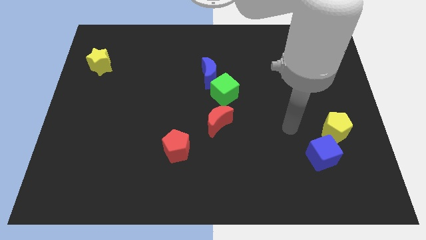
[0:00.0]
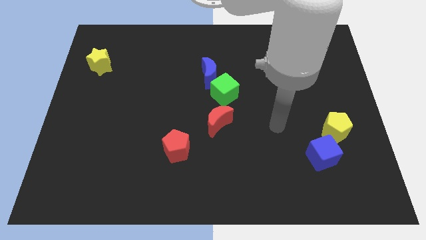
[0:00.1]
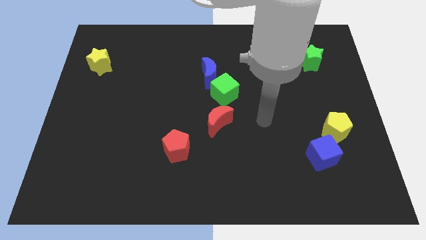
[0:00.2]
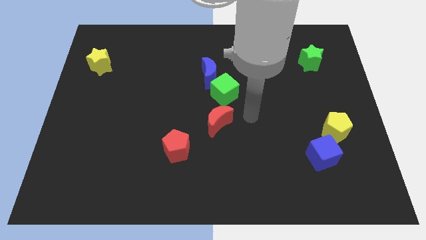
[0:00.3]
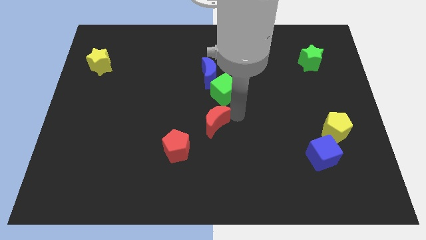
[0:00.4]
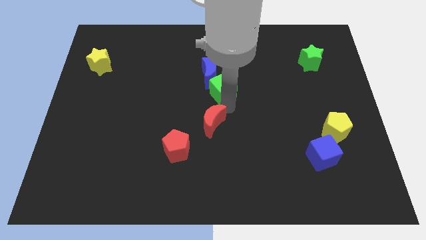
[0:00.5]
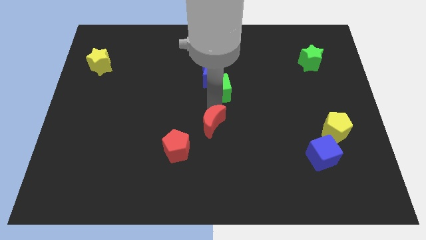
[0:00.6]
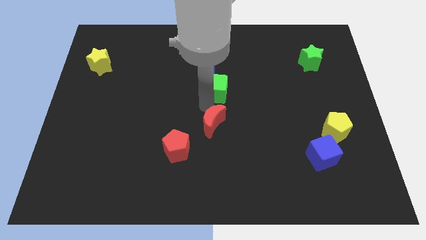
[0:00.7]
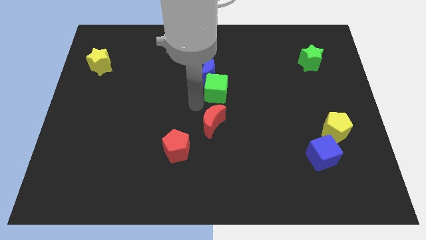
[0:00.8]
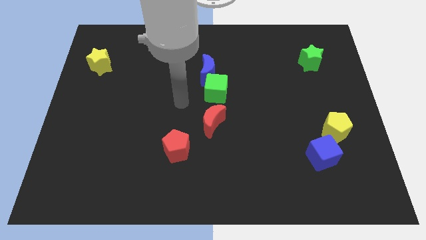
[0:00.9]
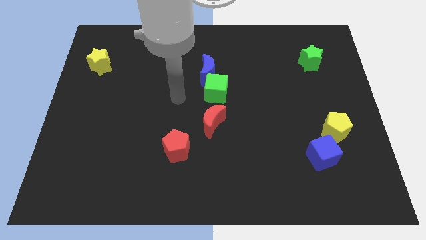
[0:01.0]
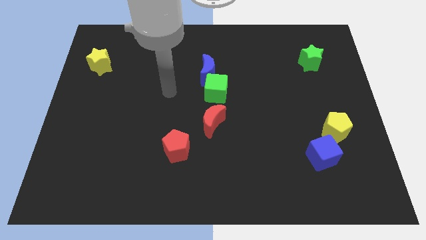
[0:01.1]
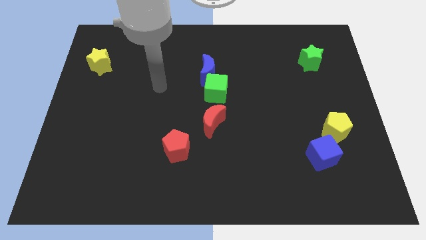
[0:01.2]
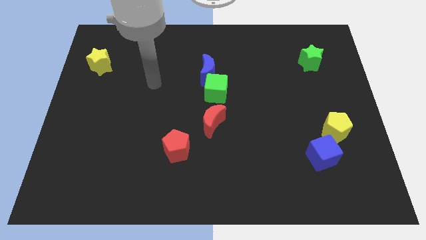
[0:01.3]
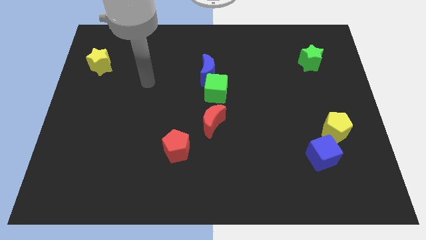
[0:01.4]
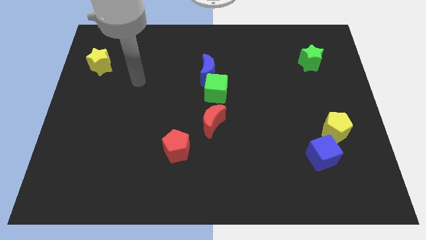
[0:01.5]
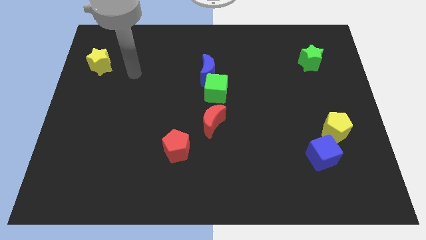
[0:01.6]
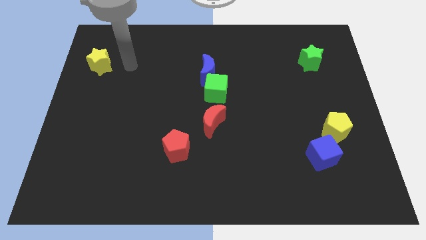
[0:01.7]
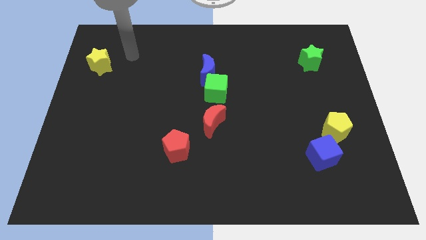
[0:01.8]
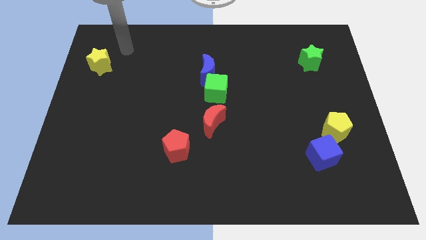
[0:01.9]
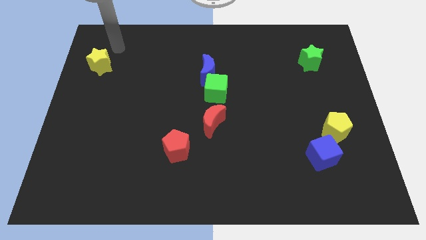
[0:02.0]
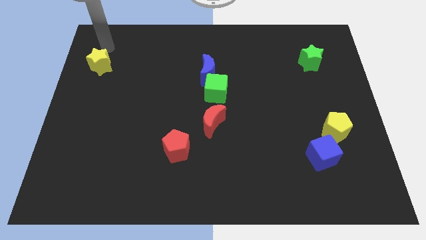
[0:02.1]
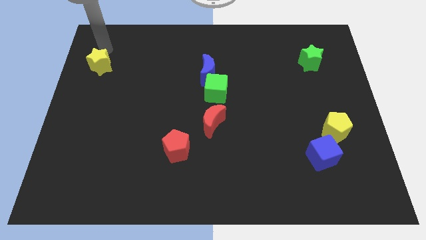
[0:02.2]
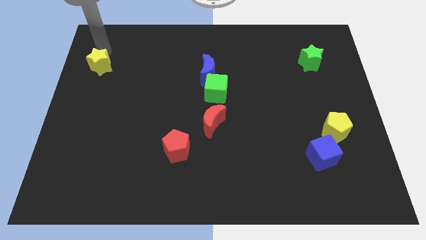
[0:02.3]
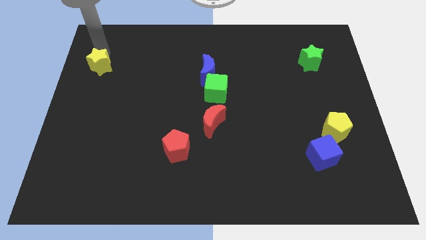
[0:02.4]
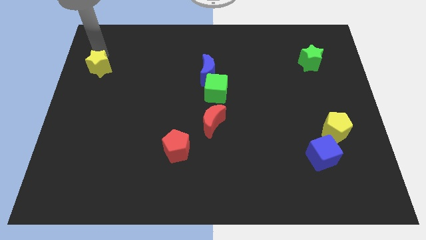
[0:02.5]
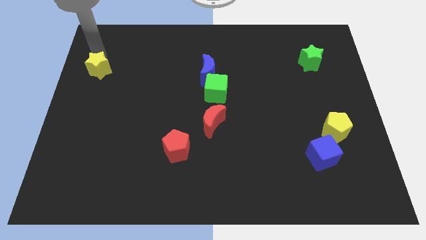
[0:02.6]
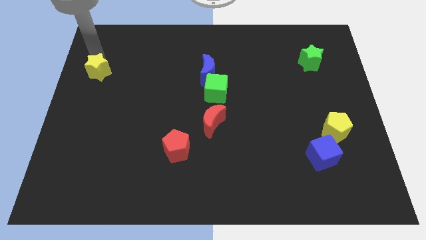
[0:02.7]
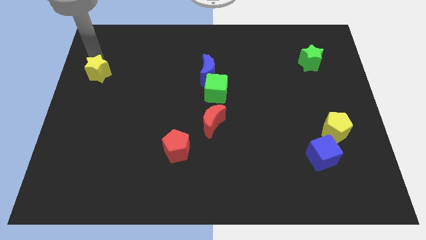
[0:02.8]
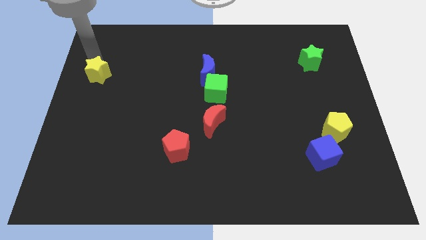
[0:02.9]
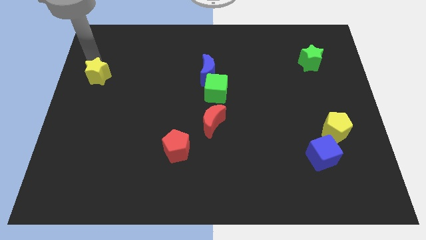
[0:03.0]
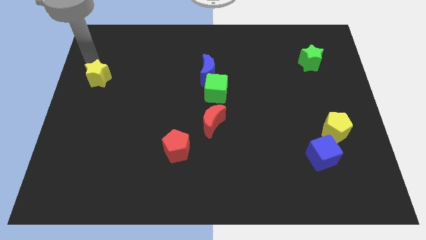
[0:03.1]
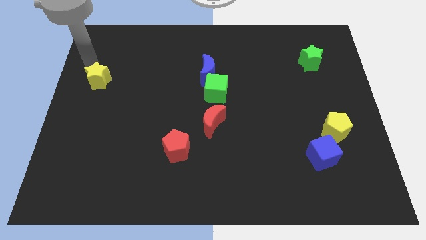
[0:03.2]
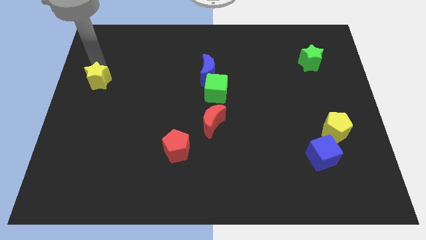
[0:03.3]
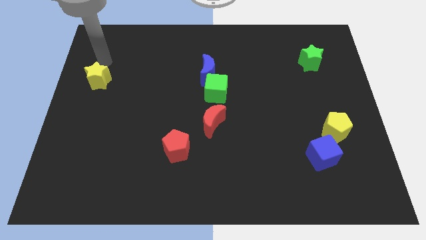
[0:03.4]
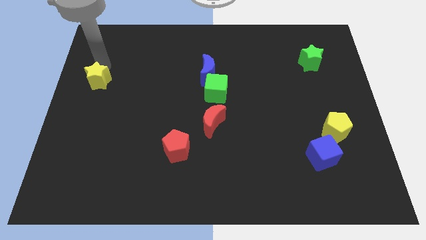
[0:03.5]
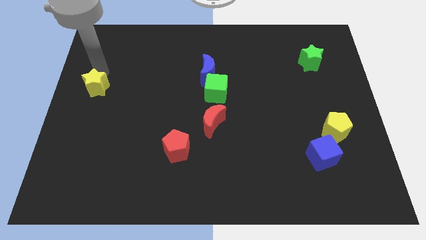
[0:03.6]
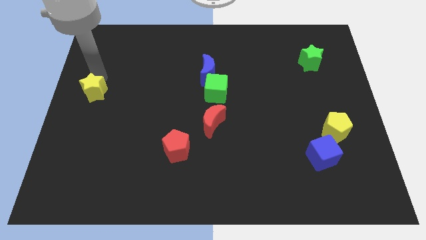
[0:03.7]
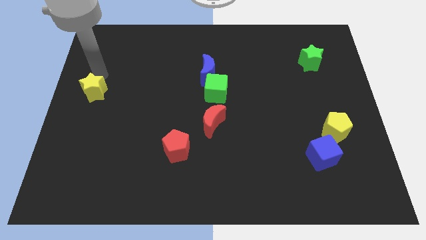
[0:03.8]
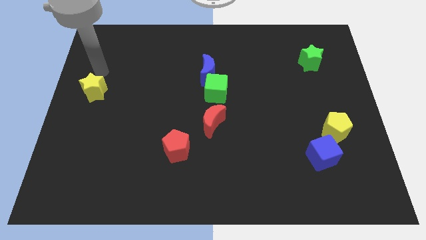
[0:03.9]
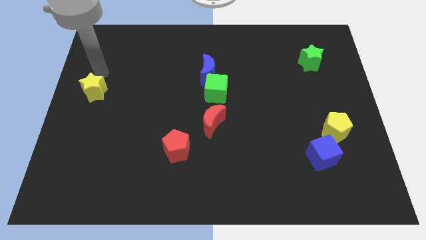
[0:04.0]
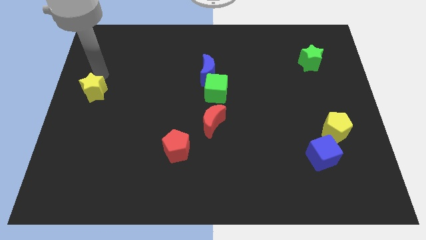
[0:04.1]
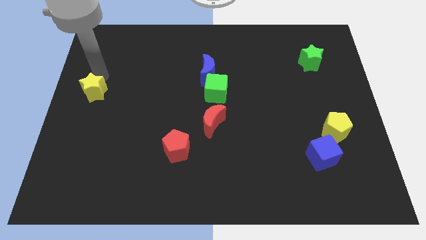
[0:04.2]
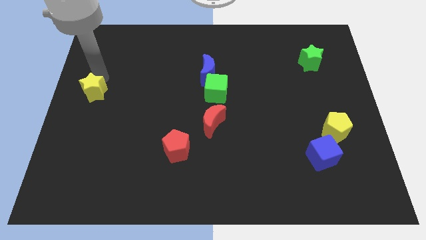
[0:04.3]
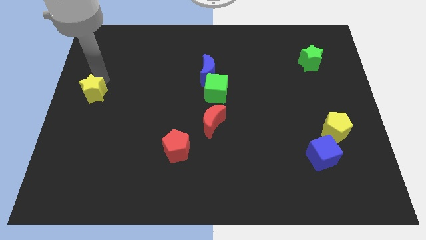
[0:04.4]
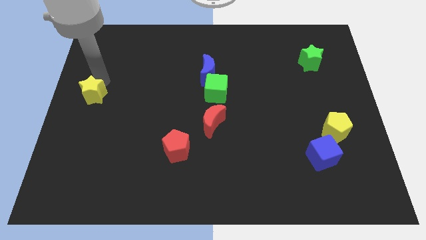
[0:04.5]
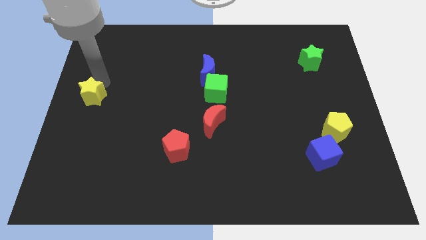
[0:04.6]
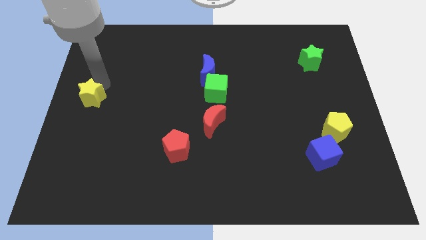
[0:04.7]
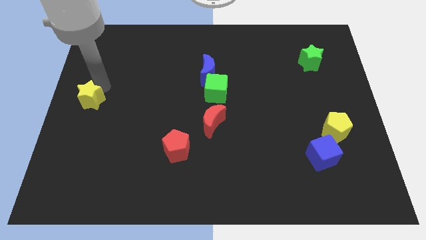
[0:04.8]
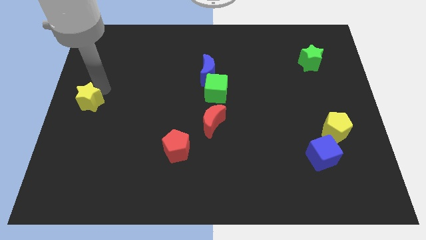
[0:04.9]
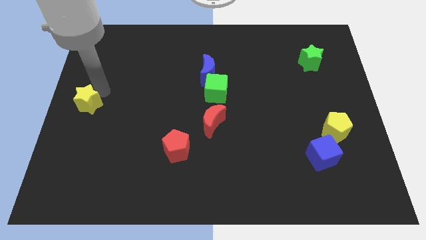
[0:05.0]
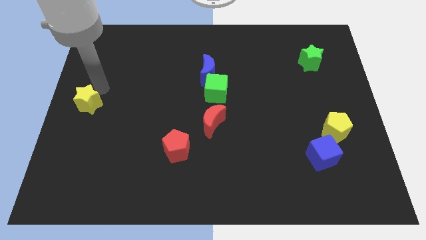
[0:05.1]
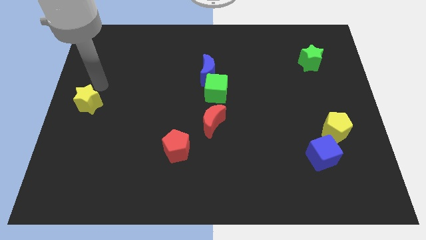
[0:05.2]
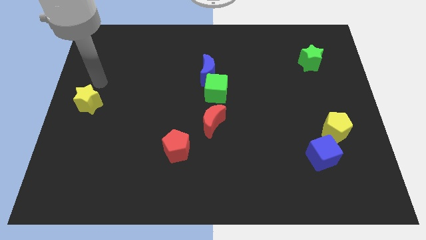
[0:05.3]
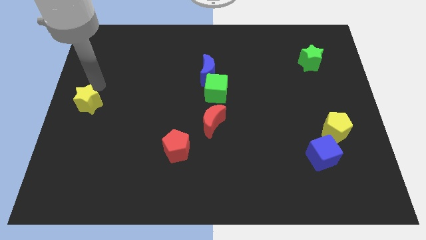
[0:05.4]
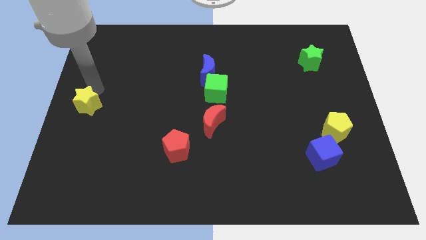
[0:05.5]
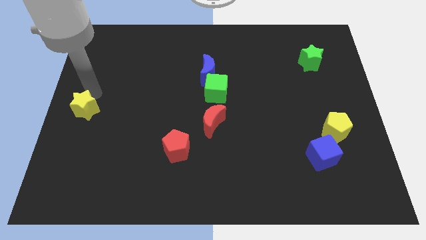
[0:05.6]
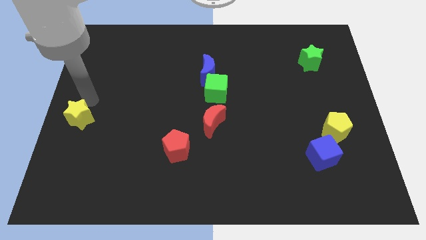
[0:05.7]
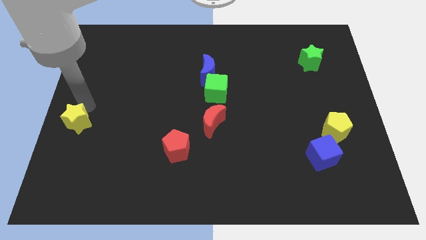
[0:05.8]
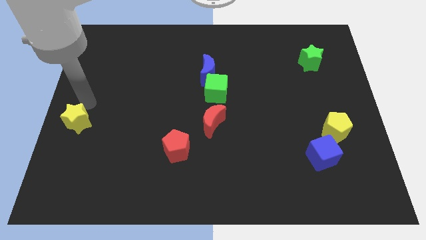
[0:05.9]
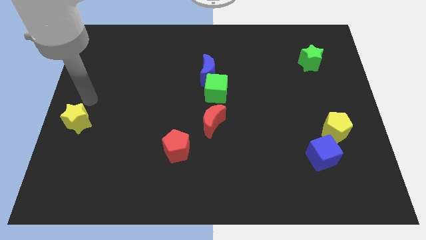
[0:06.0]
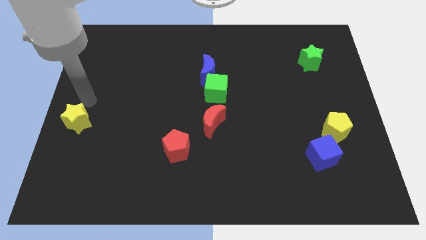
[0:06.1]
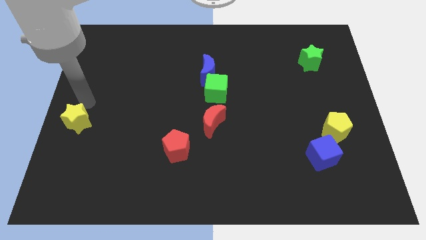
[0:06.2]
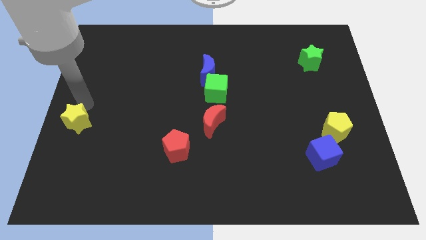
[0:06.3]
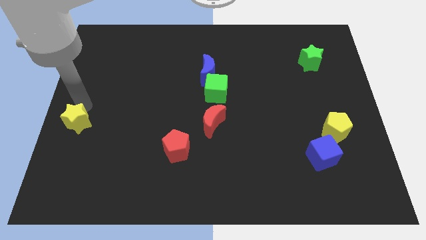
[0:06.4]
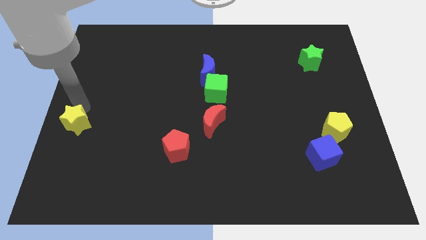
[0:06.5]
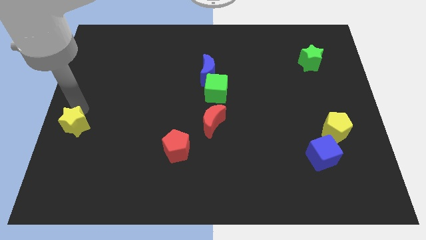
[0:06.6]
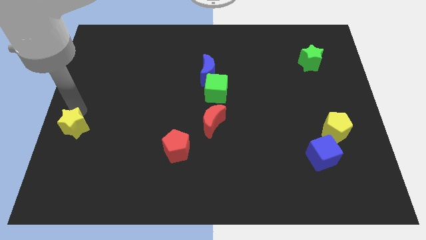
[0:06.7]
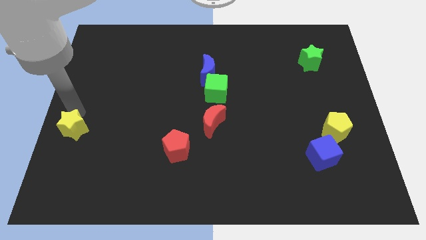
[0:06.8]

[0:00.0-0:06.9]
slide the yellow star downwards

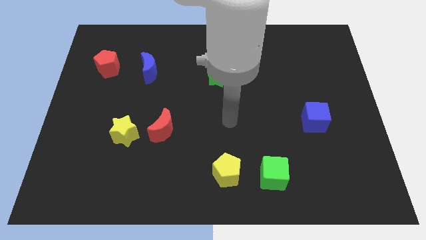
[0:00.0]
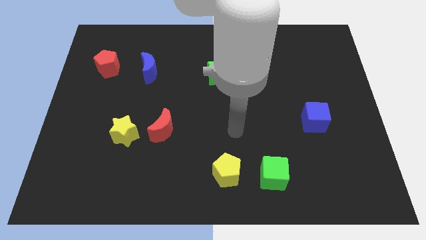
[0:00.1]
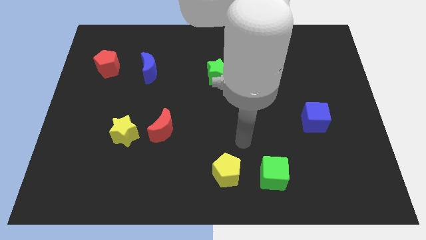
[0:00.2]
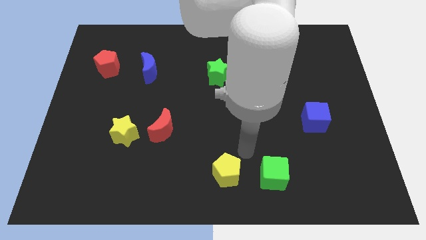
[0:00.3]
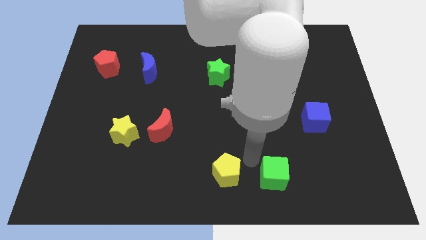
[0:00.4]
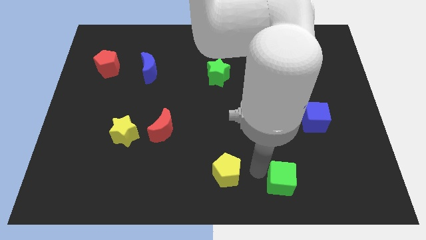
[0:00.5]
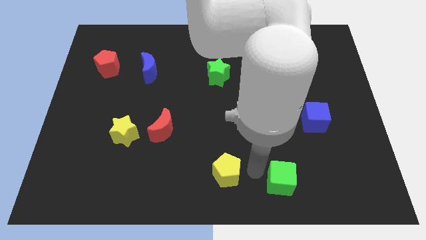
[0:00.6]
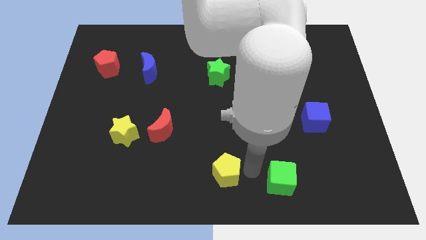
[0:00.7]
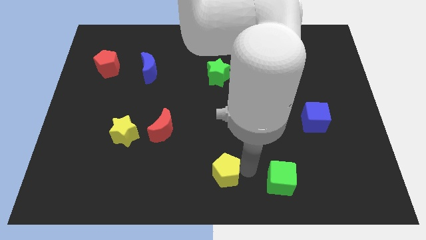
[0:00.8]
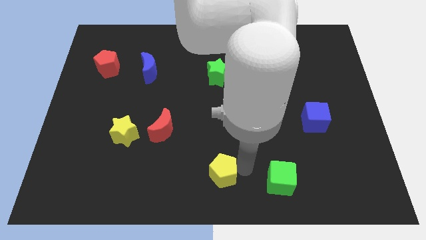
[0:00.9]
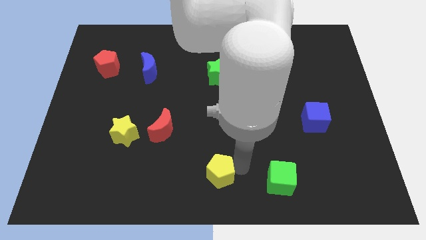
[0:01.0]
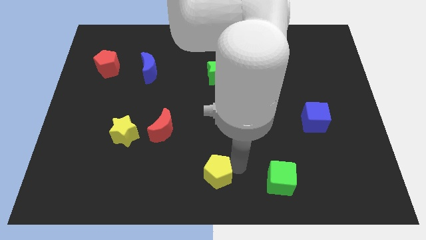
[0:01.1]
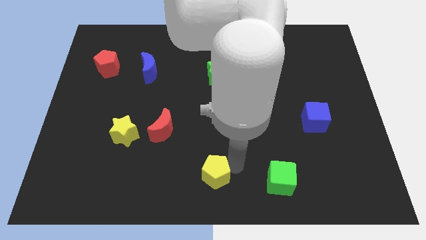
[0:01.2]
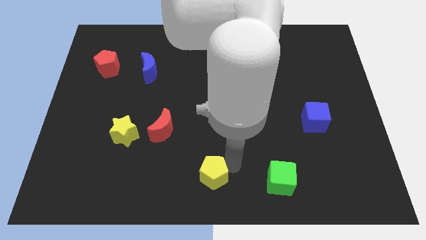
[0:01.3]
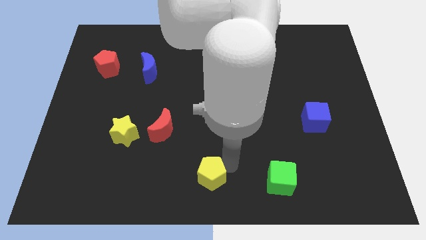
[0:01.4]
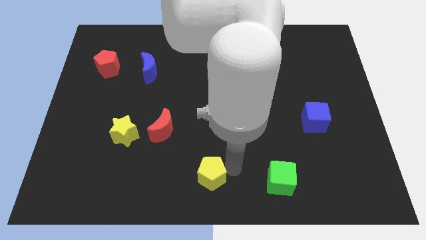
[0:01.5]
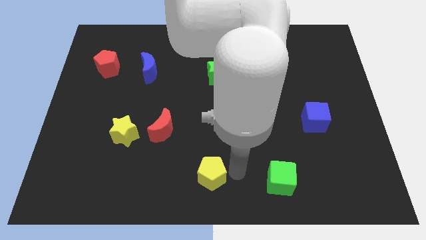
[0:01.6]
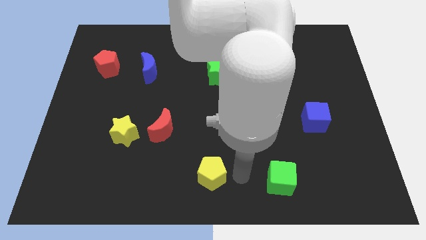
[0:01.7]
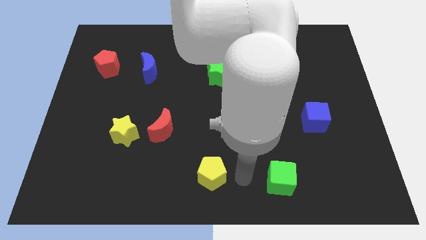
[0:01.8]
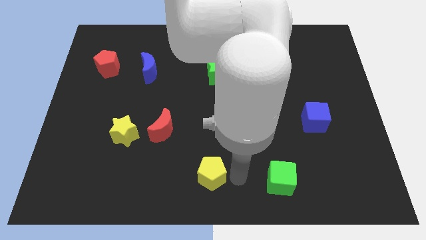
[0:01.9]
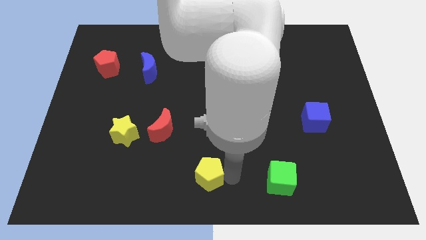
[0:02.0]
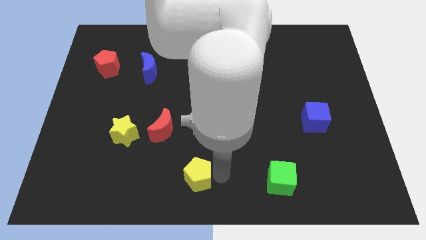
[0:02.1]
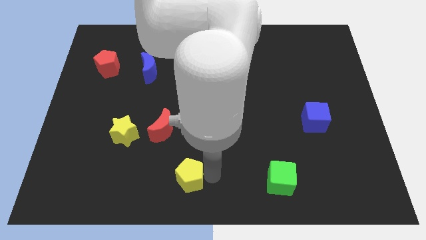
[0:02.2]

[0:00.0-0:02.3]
slide the yellow pentagon a little to the left
